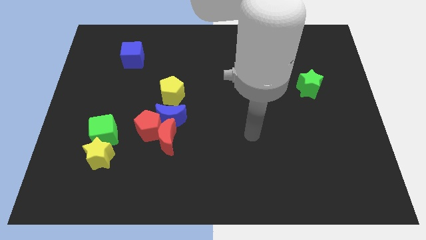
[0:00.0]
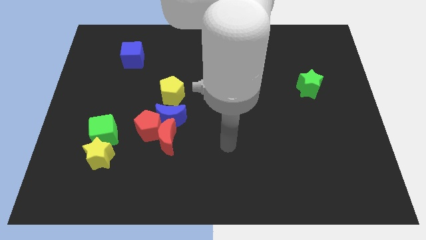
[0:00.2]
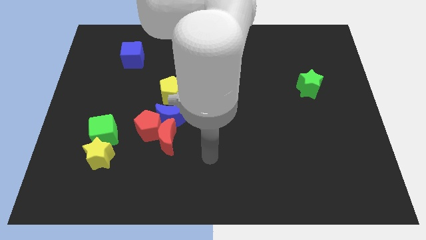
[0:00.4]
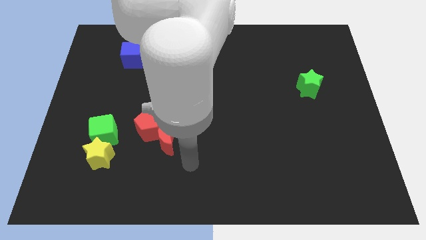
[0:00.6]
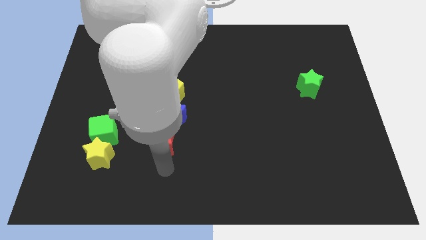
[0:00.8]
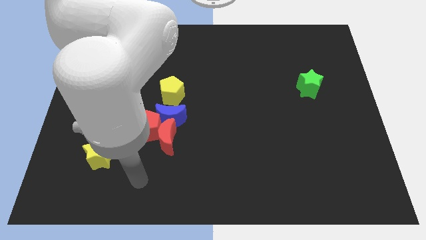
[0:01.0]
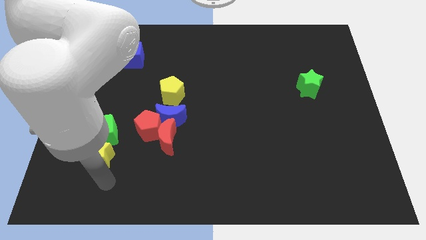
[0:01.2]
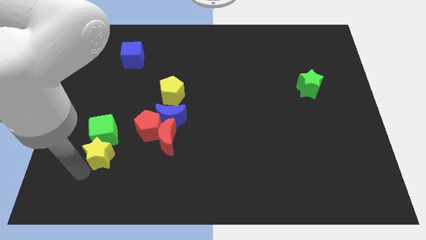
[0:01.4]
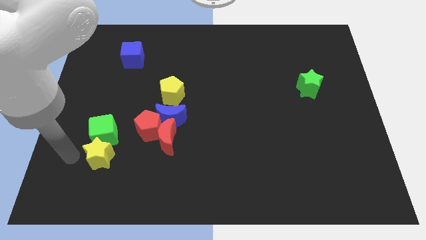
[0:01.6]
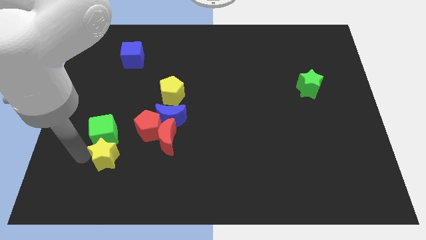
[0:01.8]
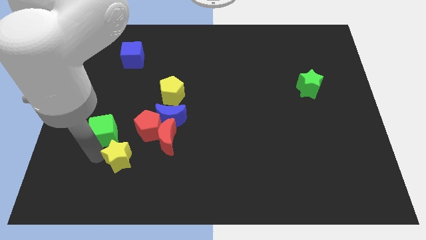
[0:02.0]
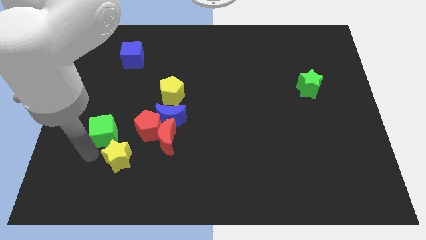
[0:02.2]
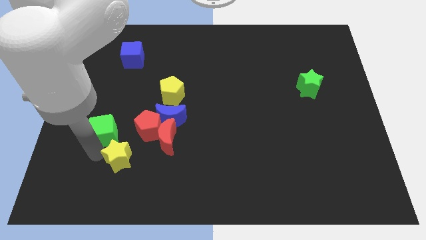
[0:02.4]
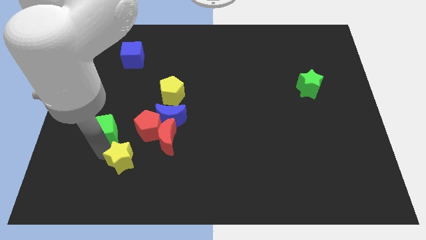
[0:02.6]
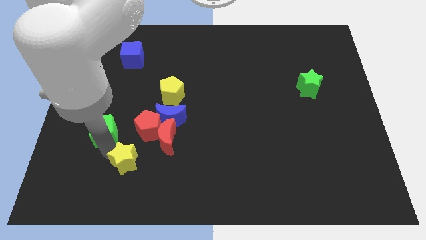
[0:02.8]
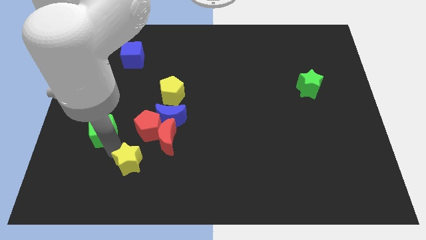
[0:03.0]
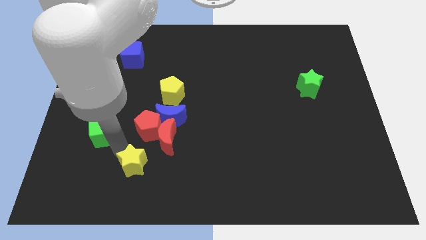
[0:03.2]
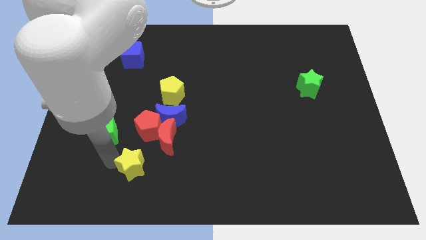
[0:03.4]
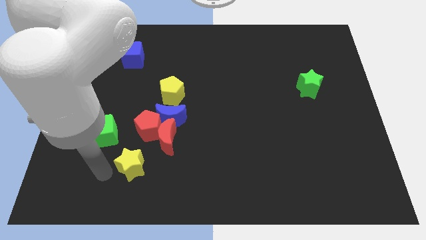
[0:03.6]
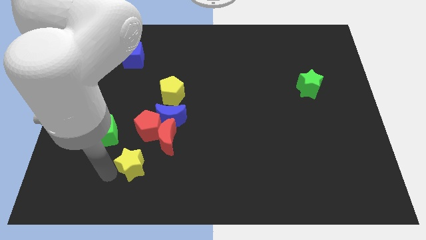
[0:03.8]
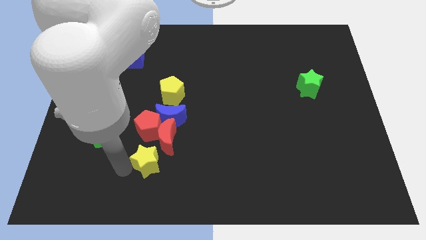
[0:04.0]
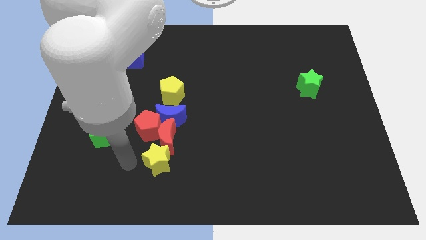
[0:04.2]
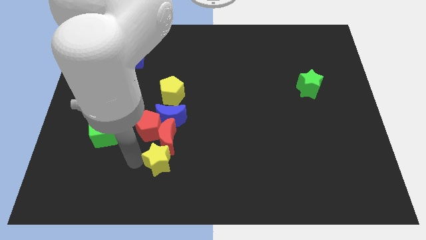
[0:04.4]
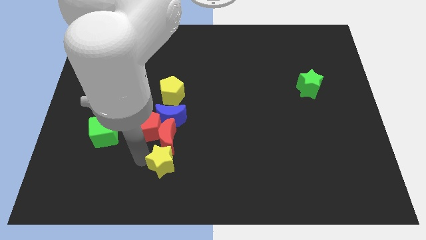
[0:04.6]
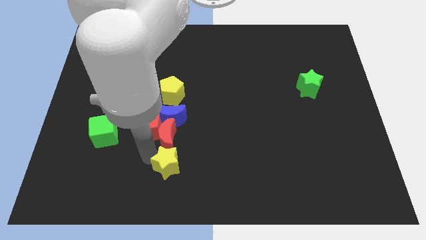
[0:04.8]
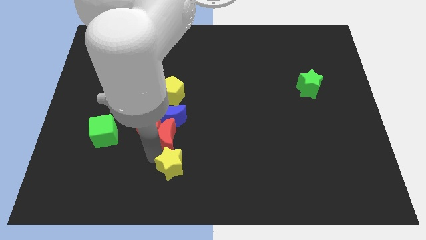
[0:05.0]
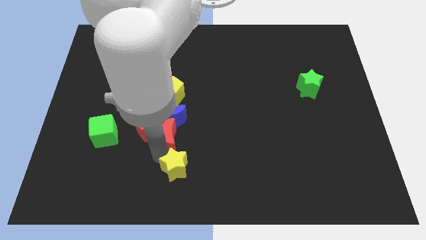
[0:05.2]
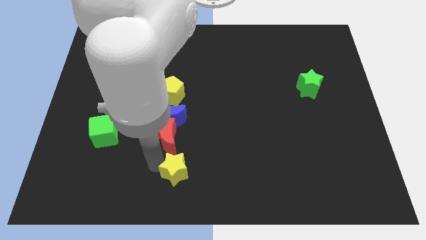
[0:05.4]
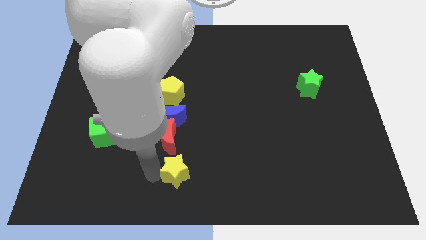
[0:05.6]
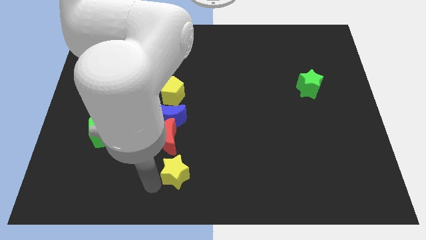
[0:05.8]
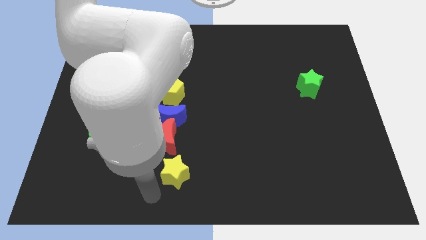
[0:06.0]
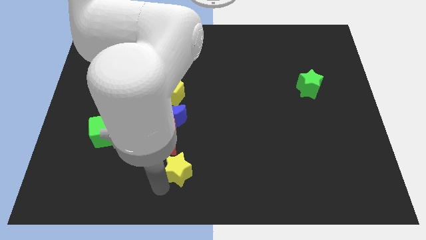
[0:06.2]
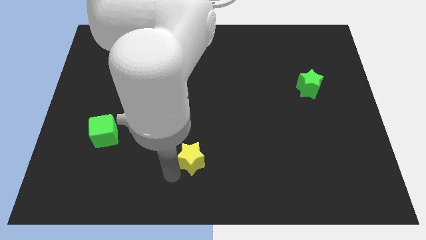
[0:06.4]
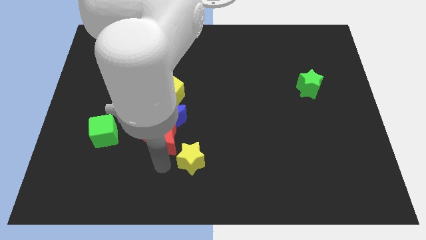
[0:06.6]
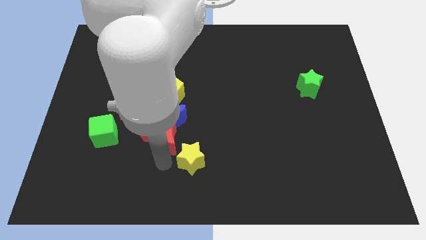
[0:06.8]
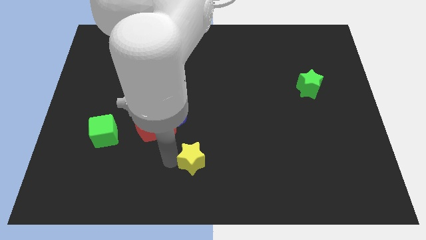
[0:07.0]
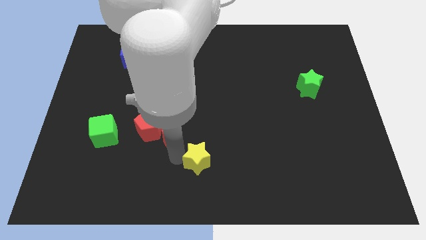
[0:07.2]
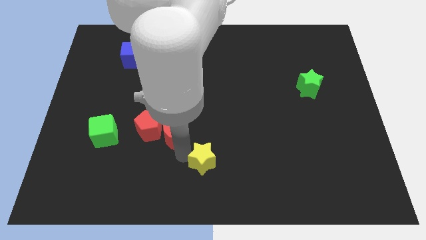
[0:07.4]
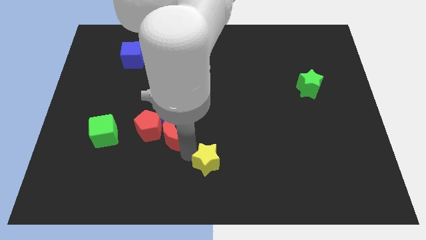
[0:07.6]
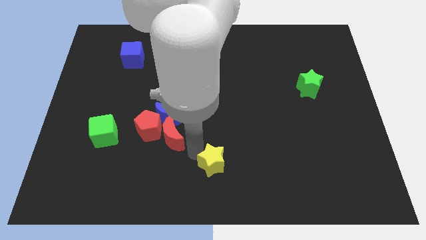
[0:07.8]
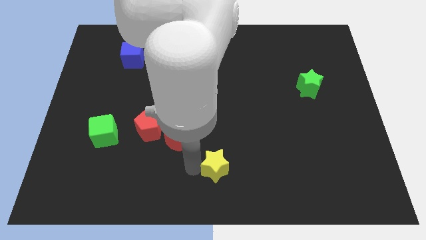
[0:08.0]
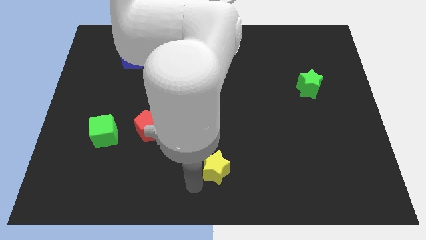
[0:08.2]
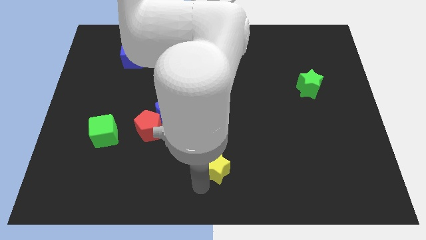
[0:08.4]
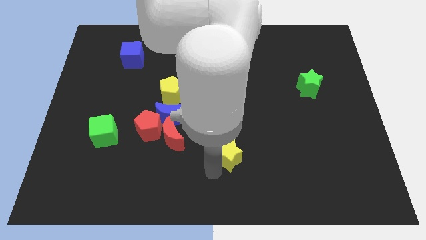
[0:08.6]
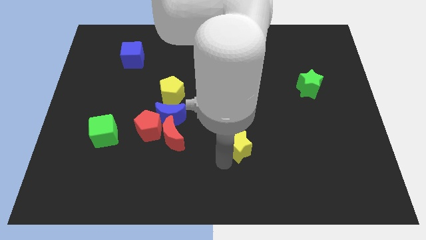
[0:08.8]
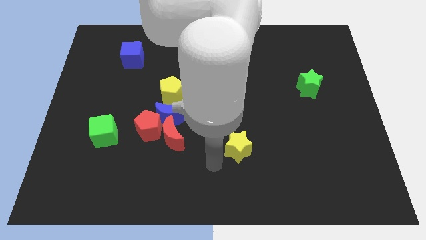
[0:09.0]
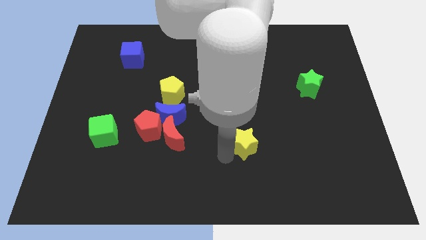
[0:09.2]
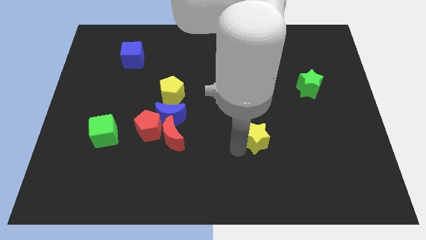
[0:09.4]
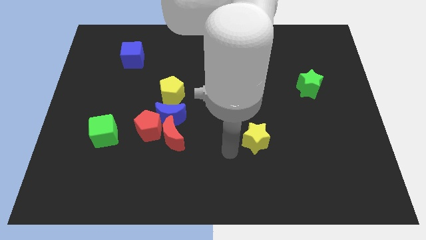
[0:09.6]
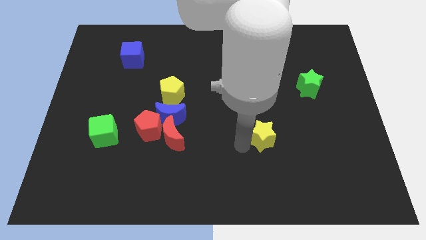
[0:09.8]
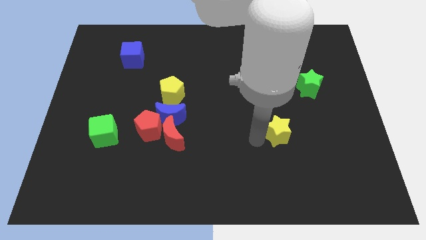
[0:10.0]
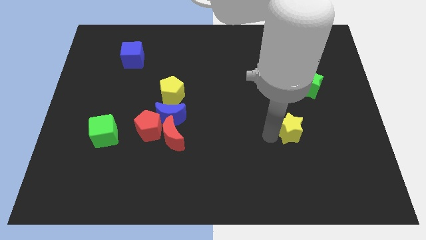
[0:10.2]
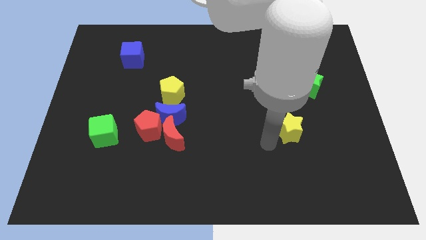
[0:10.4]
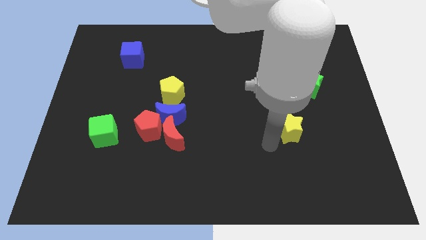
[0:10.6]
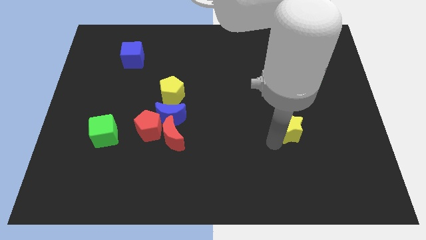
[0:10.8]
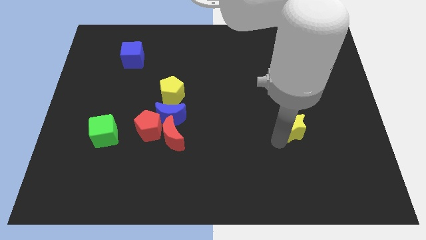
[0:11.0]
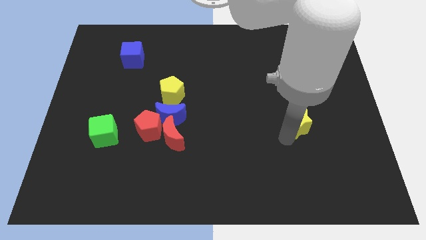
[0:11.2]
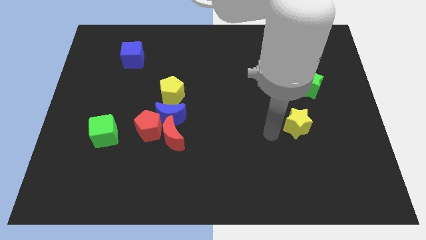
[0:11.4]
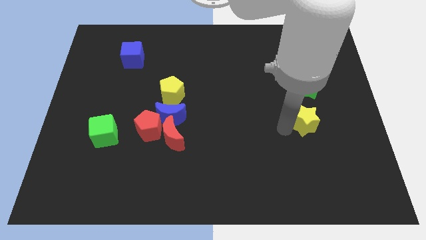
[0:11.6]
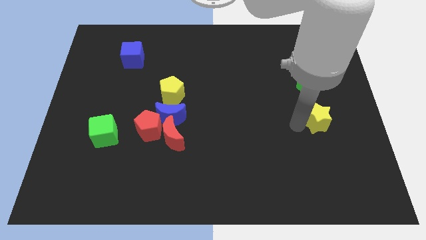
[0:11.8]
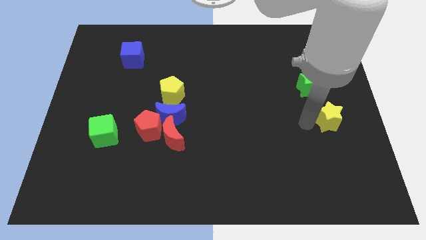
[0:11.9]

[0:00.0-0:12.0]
slide the yellow star to the center right

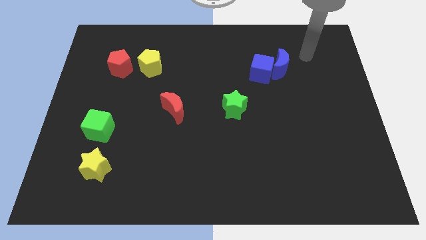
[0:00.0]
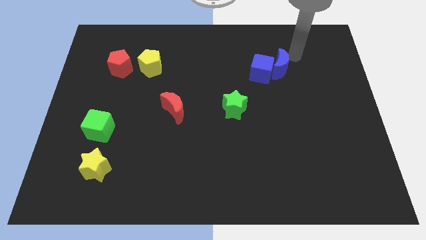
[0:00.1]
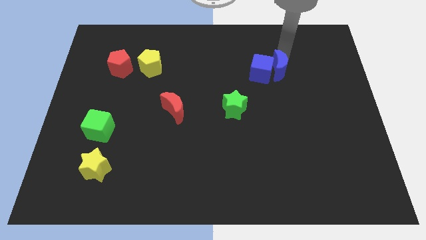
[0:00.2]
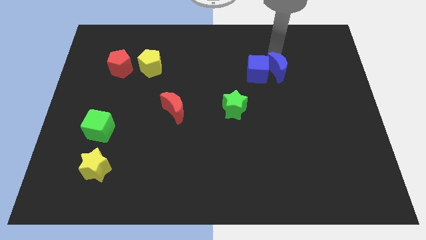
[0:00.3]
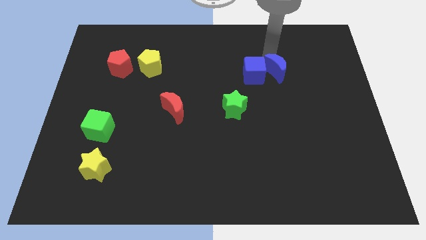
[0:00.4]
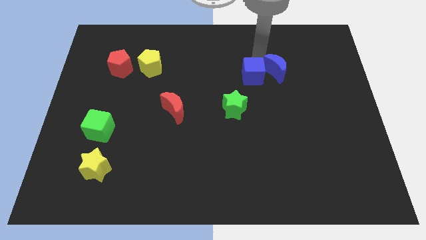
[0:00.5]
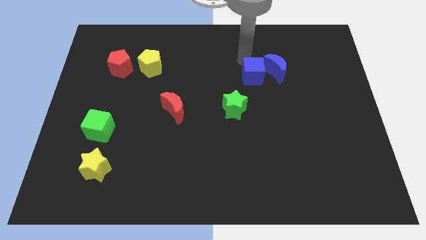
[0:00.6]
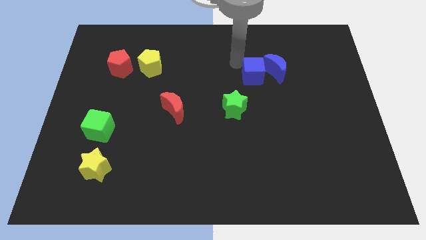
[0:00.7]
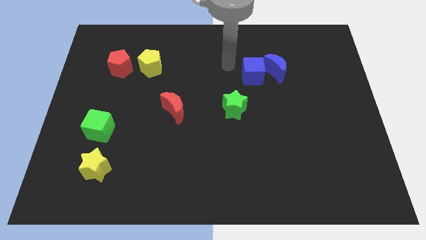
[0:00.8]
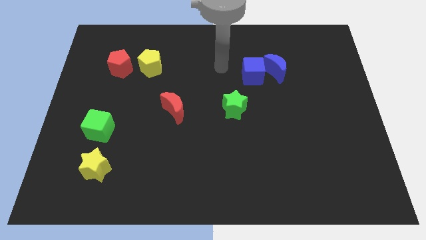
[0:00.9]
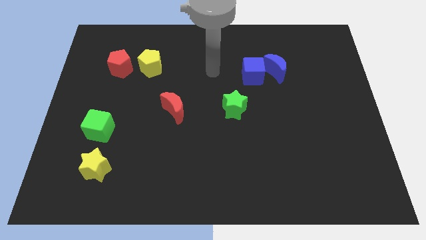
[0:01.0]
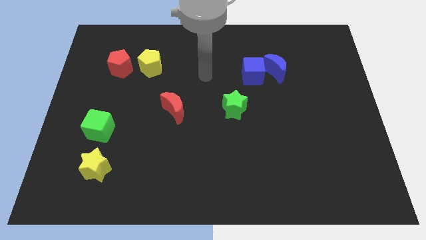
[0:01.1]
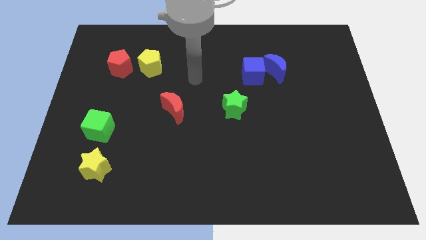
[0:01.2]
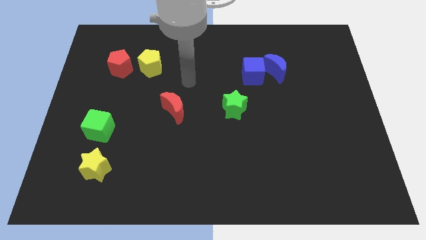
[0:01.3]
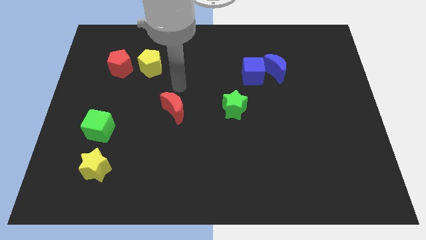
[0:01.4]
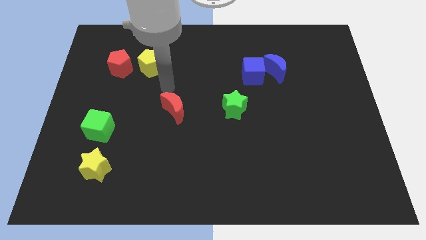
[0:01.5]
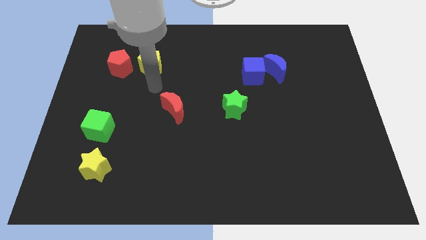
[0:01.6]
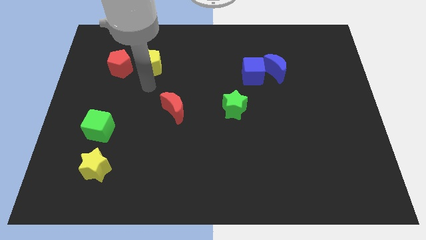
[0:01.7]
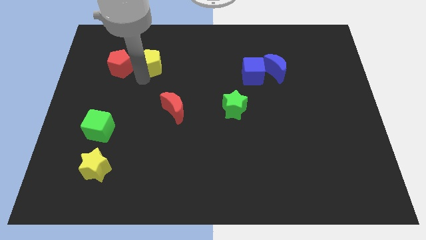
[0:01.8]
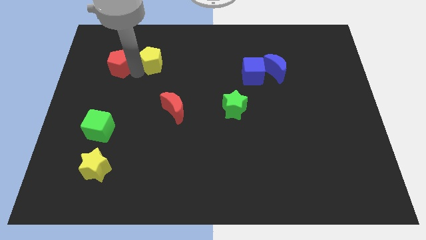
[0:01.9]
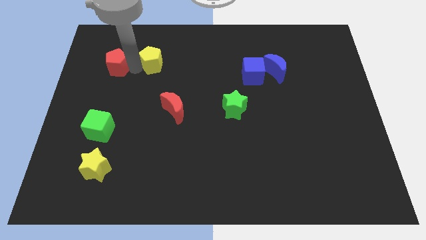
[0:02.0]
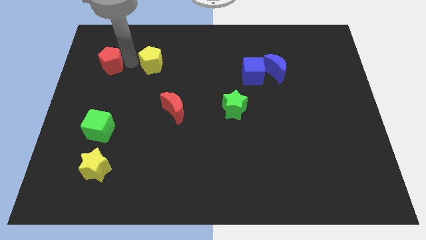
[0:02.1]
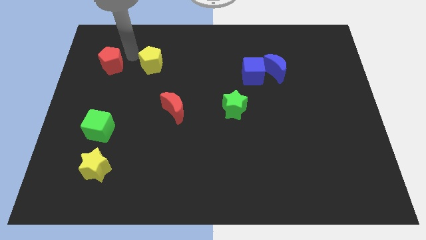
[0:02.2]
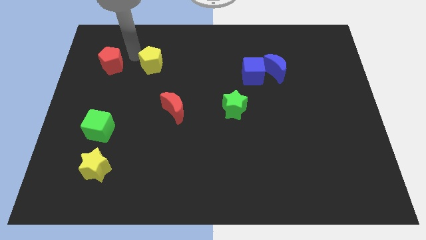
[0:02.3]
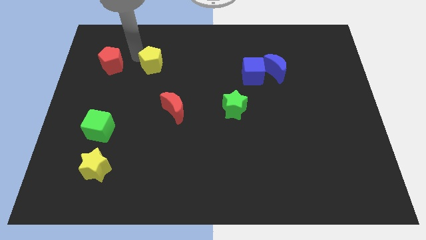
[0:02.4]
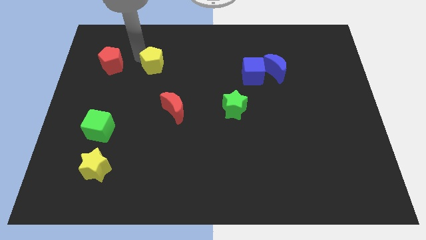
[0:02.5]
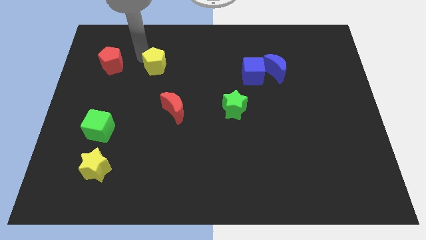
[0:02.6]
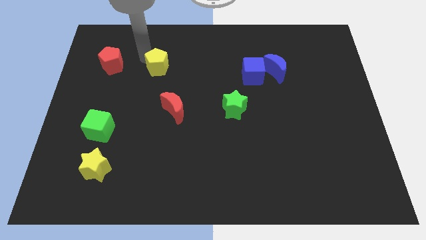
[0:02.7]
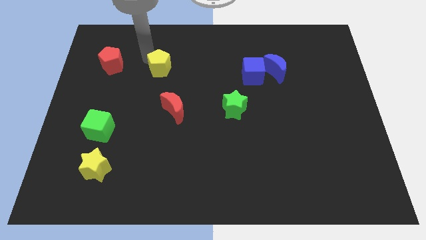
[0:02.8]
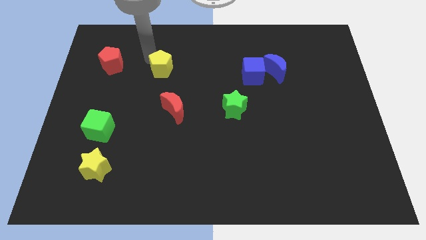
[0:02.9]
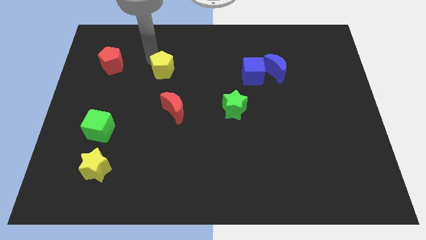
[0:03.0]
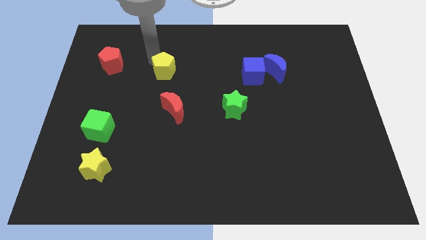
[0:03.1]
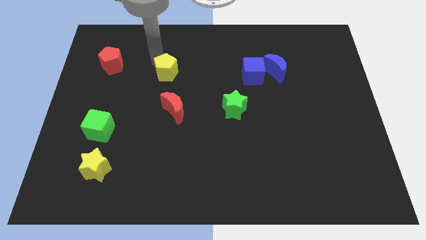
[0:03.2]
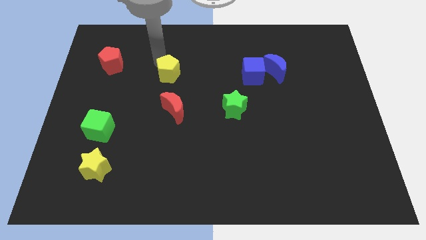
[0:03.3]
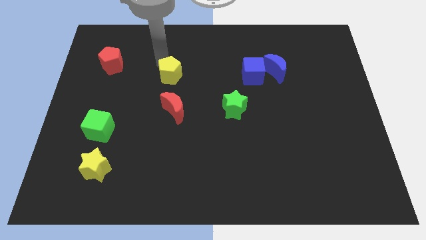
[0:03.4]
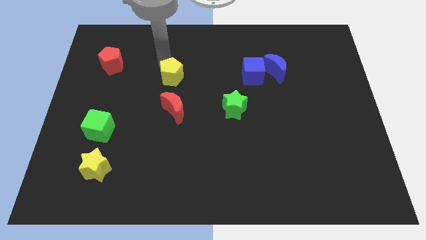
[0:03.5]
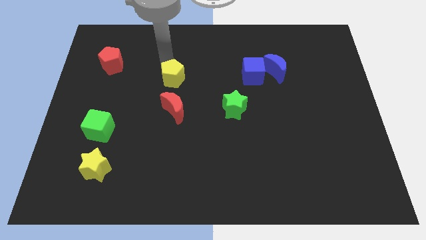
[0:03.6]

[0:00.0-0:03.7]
put the yellow pentagon to the middle
